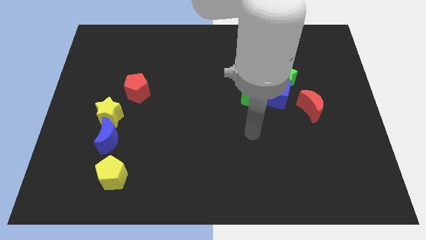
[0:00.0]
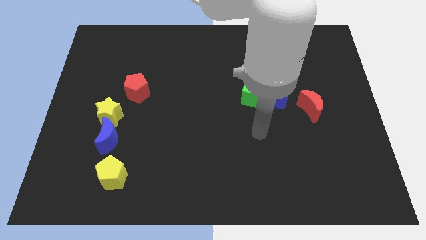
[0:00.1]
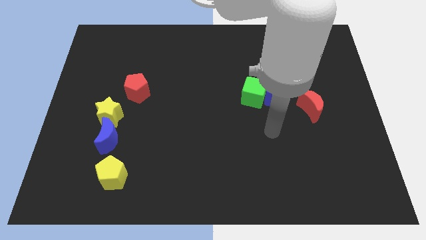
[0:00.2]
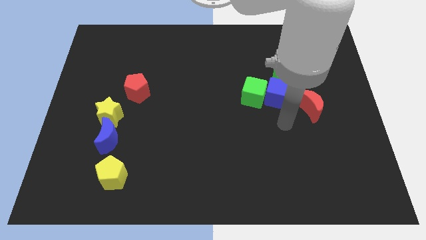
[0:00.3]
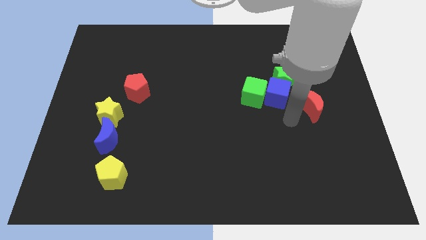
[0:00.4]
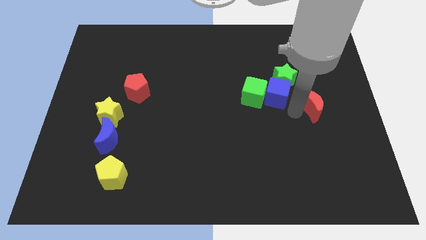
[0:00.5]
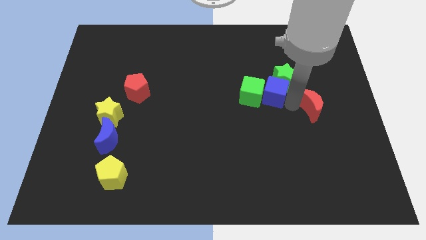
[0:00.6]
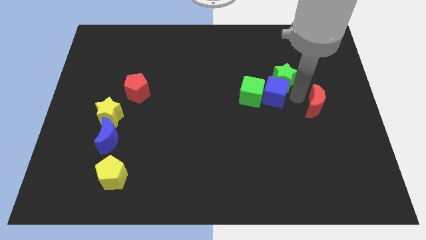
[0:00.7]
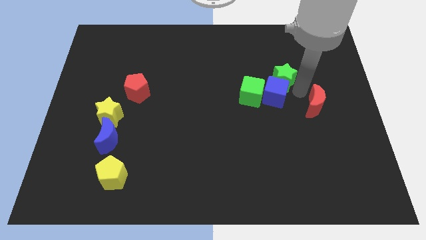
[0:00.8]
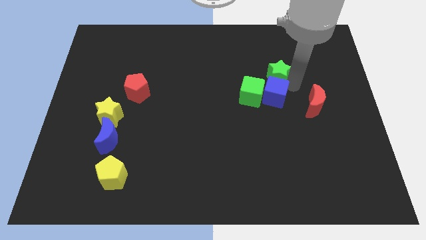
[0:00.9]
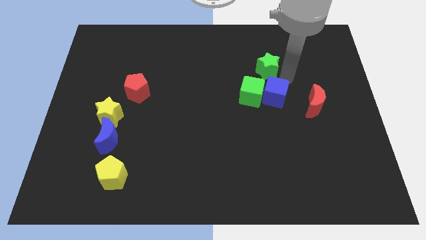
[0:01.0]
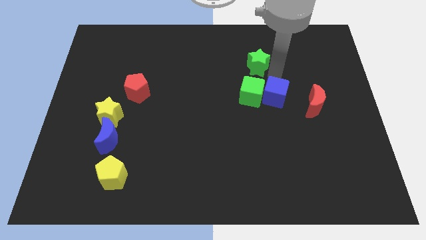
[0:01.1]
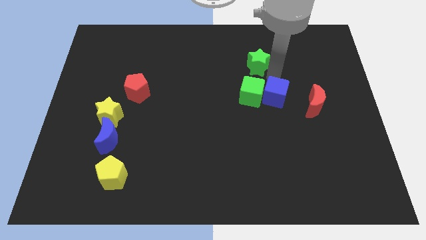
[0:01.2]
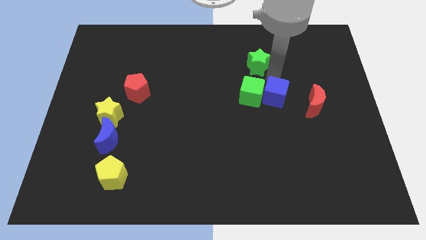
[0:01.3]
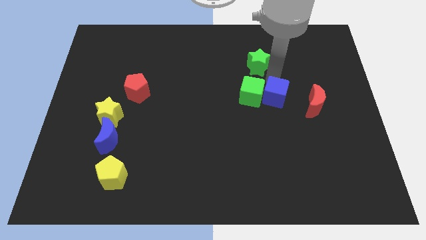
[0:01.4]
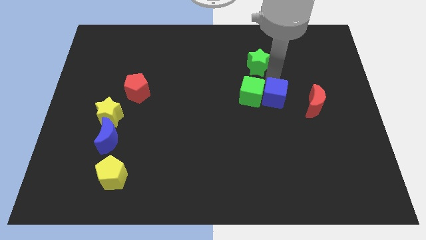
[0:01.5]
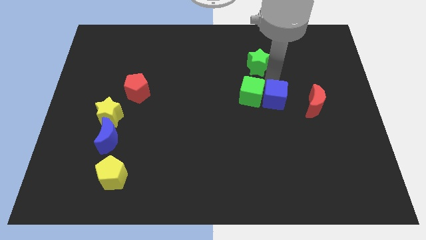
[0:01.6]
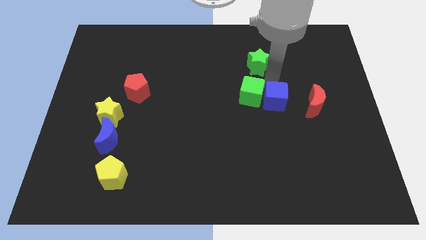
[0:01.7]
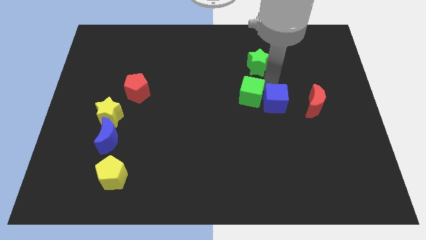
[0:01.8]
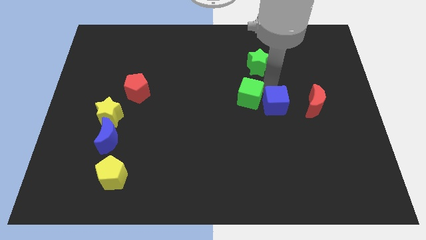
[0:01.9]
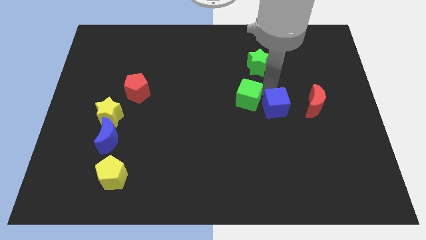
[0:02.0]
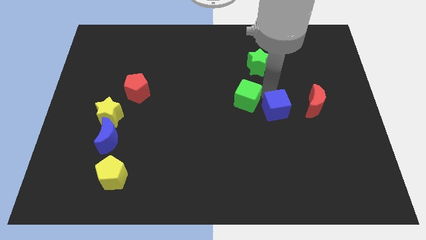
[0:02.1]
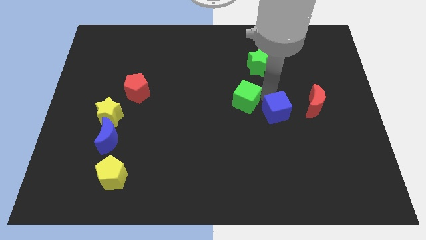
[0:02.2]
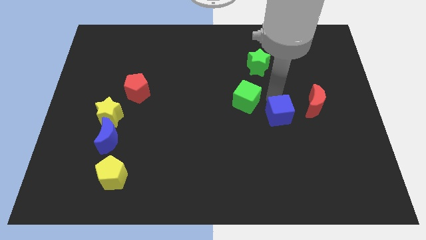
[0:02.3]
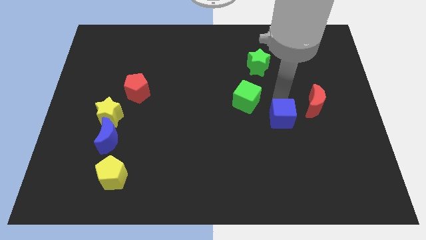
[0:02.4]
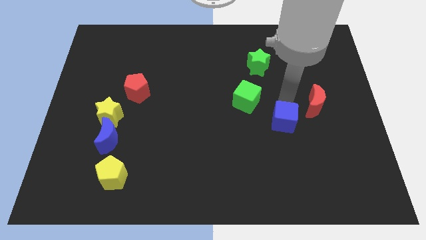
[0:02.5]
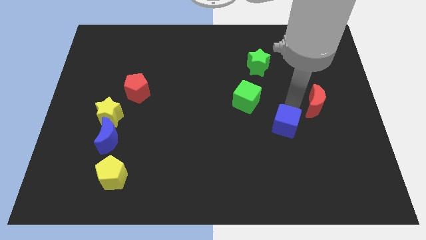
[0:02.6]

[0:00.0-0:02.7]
separate the blue cube from the green star, green cube, and red moon

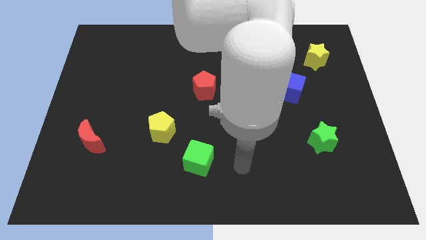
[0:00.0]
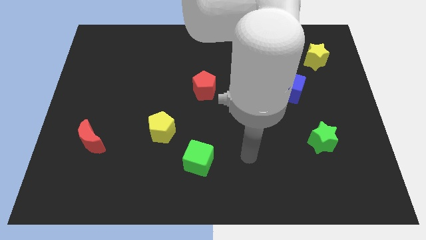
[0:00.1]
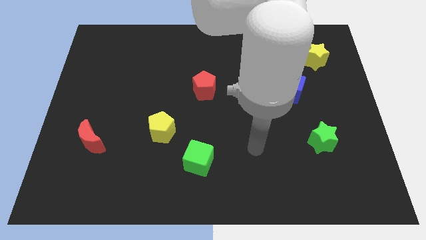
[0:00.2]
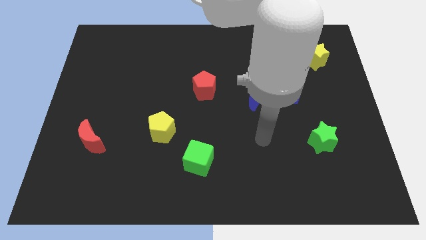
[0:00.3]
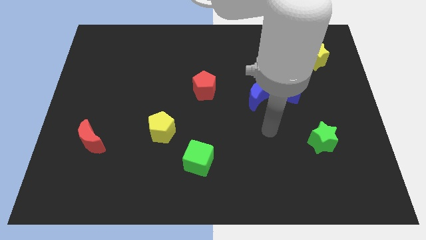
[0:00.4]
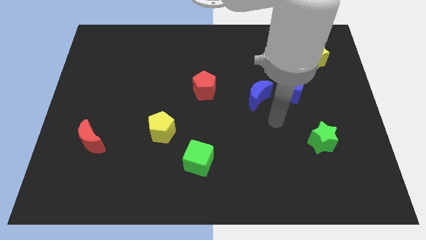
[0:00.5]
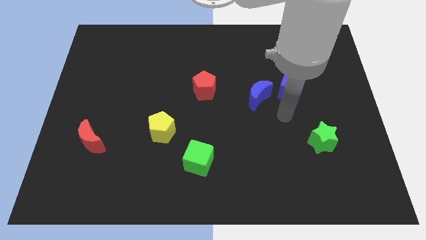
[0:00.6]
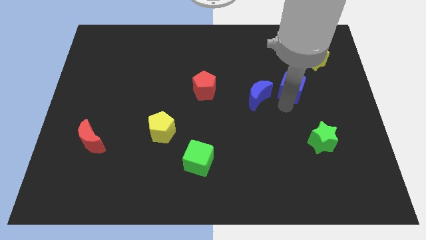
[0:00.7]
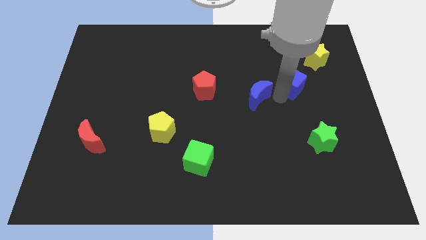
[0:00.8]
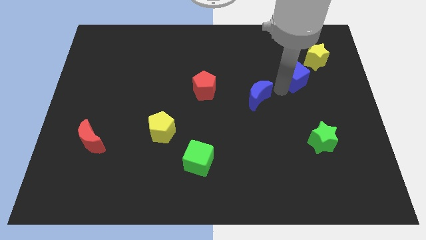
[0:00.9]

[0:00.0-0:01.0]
separate the blue moon from the blue cube

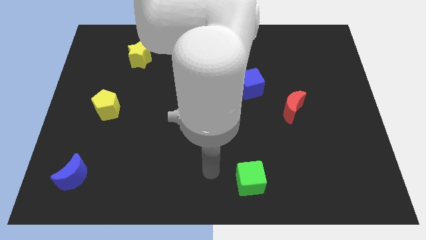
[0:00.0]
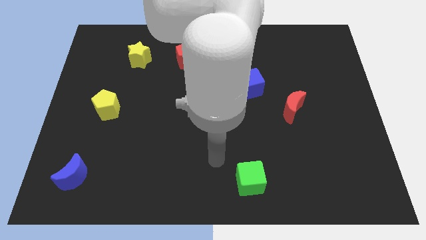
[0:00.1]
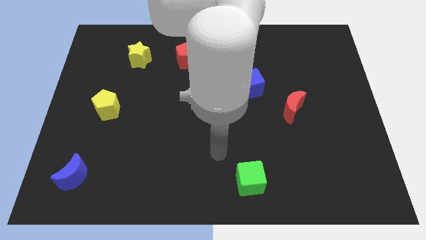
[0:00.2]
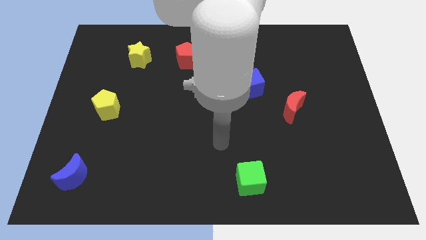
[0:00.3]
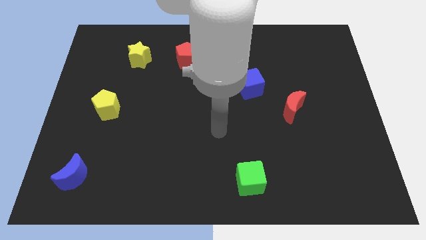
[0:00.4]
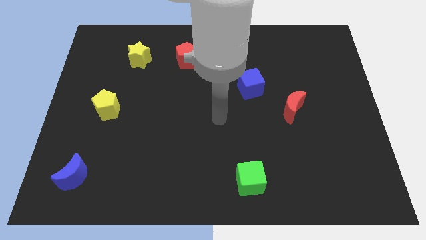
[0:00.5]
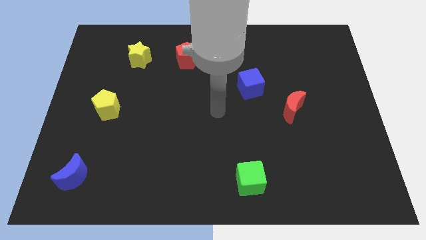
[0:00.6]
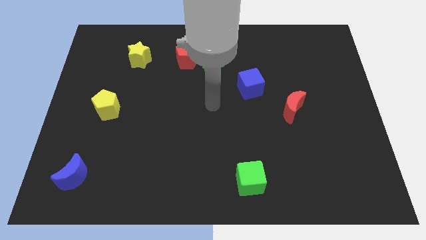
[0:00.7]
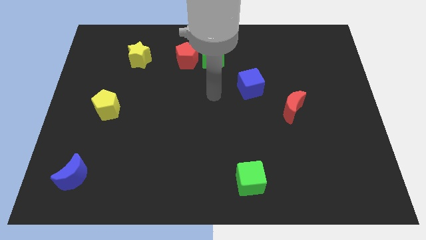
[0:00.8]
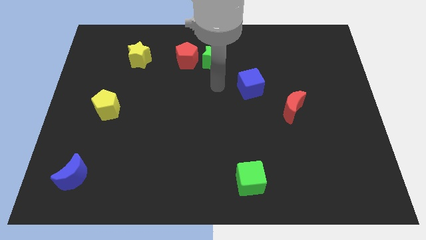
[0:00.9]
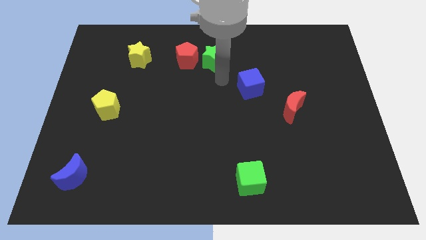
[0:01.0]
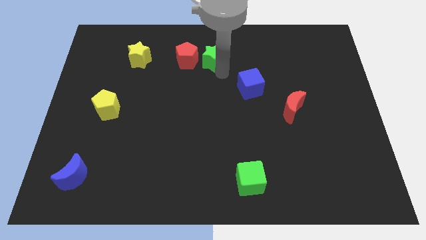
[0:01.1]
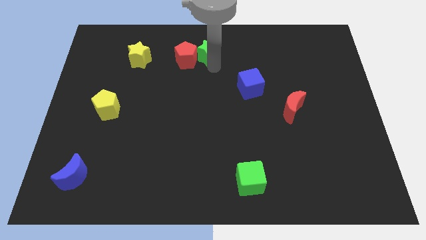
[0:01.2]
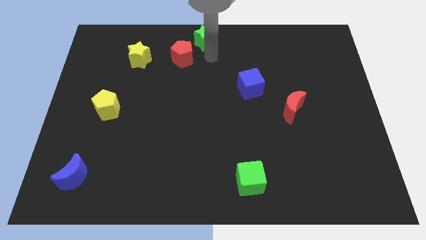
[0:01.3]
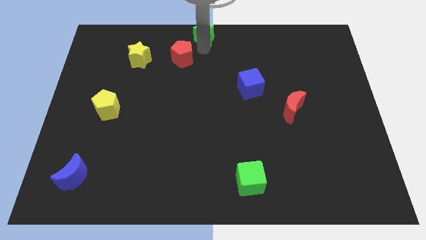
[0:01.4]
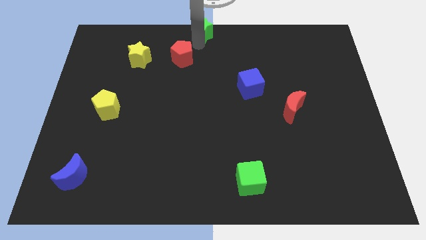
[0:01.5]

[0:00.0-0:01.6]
pull the red pentagon apart from the green star

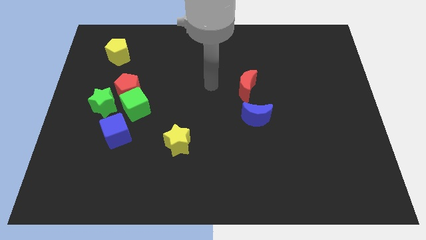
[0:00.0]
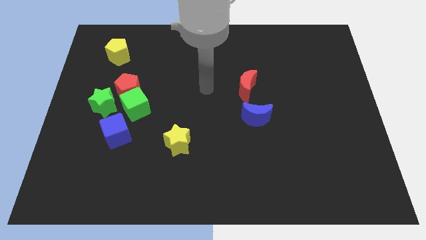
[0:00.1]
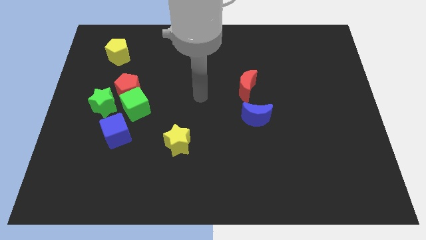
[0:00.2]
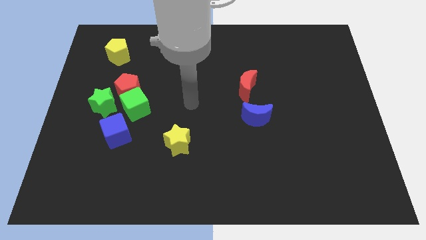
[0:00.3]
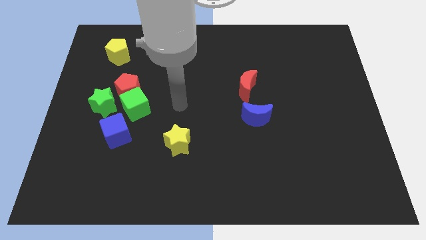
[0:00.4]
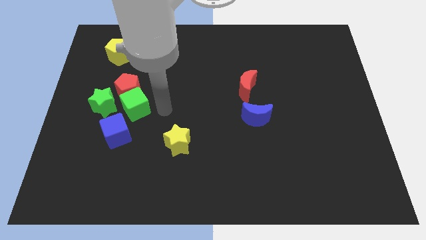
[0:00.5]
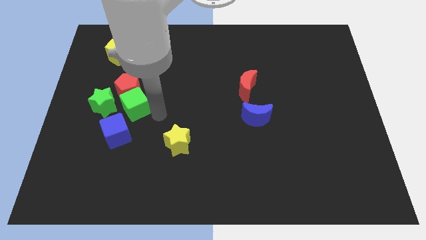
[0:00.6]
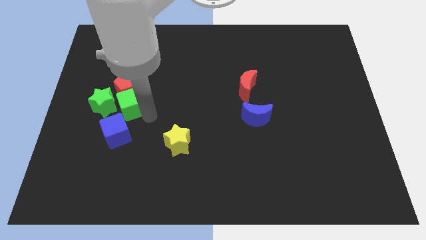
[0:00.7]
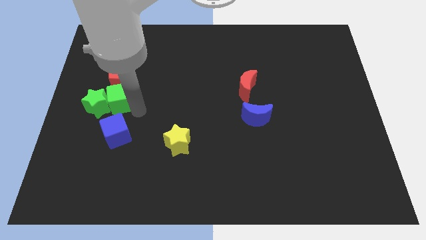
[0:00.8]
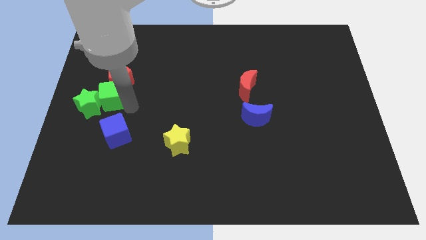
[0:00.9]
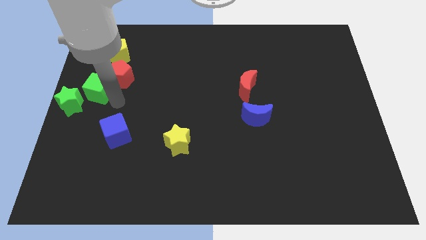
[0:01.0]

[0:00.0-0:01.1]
separate the red pentagon from the green cube and green star

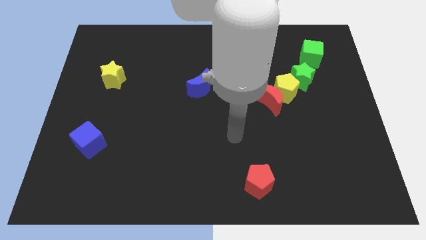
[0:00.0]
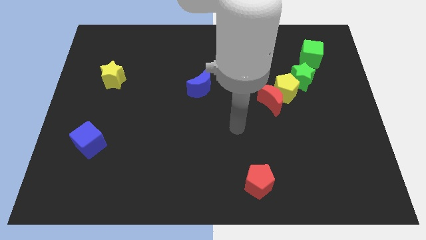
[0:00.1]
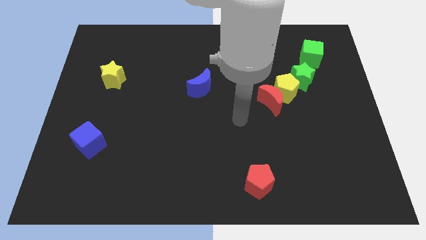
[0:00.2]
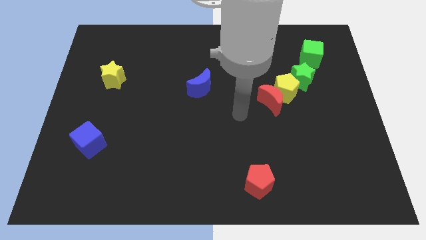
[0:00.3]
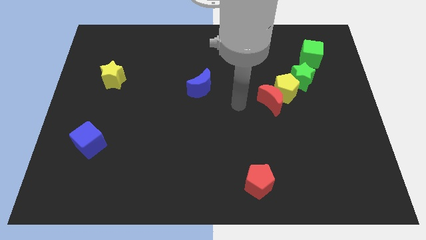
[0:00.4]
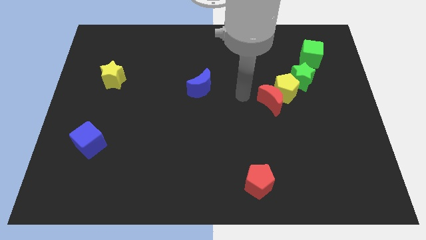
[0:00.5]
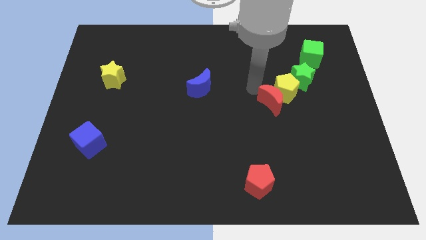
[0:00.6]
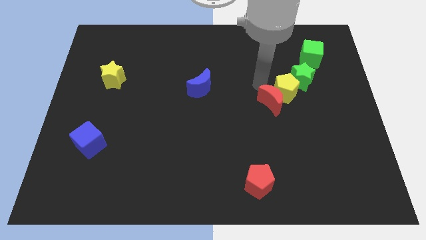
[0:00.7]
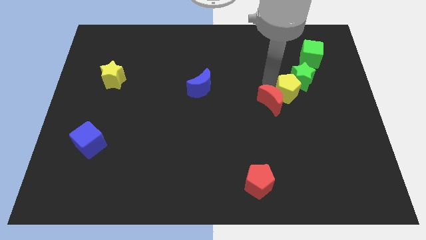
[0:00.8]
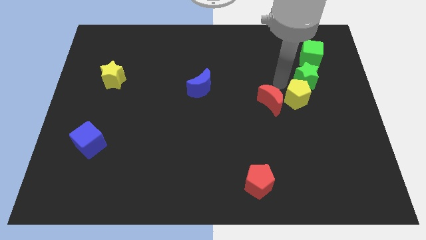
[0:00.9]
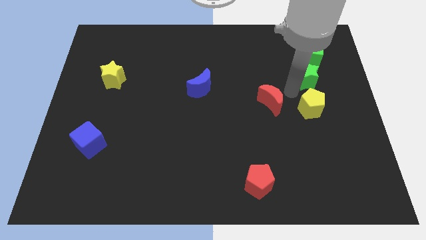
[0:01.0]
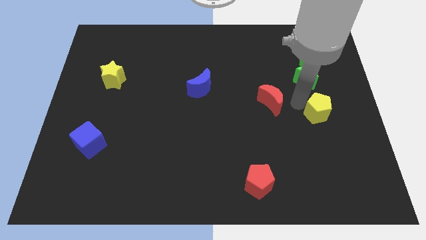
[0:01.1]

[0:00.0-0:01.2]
separate the red moon from the yellow pentagon

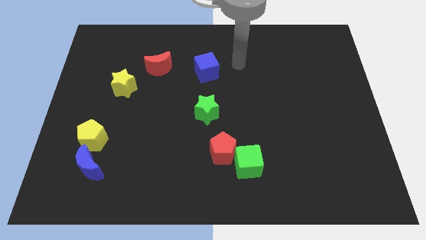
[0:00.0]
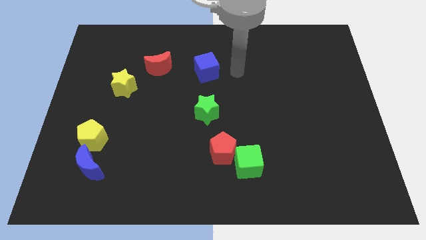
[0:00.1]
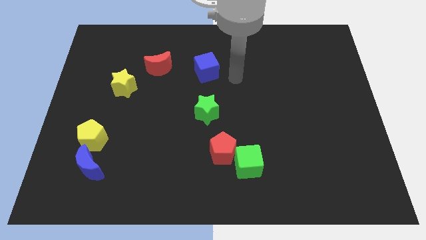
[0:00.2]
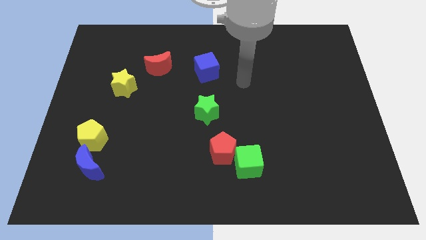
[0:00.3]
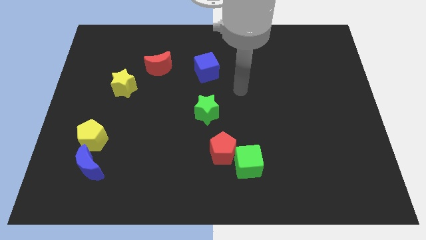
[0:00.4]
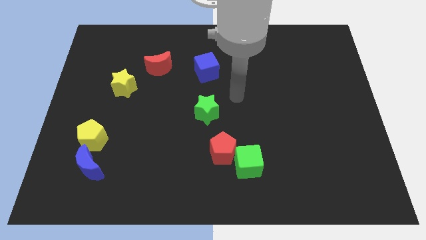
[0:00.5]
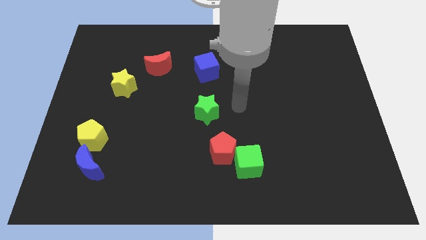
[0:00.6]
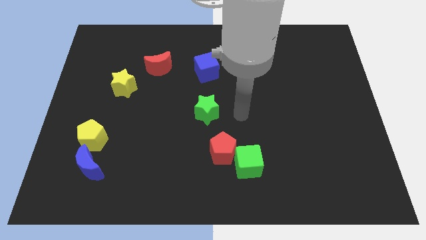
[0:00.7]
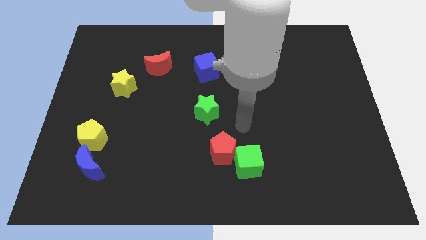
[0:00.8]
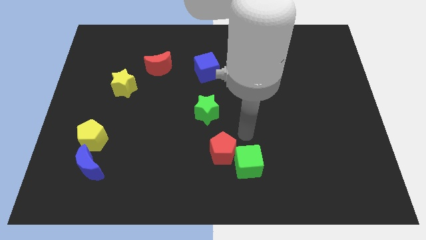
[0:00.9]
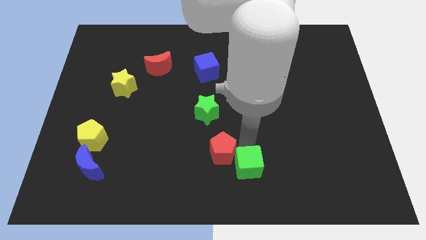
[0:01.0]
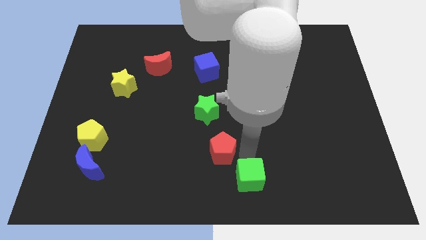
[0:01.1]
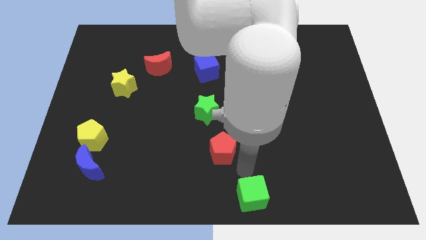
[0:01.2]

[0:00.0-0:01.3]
separate the red pentagon from the green cube

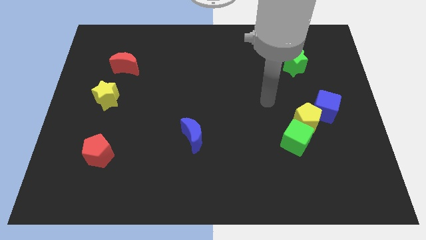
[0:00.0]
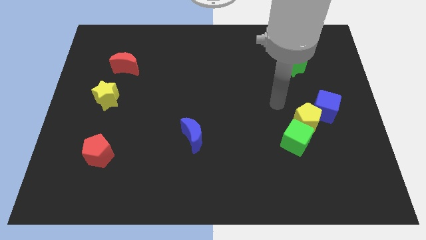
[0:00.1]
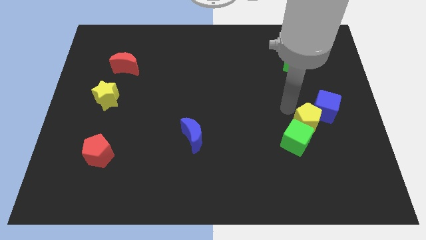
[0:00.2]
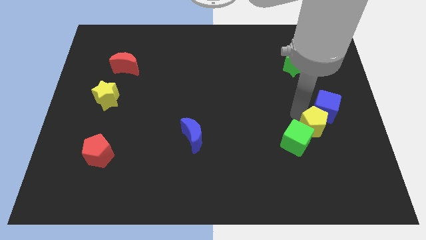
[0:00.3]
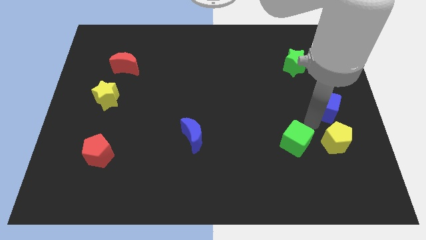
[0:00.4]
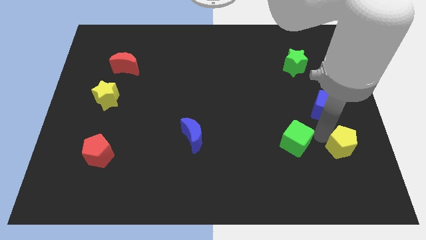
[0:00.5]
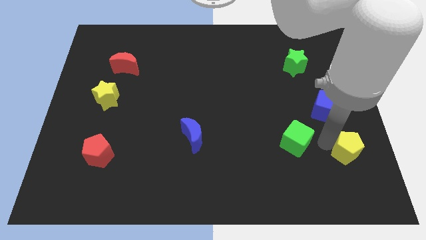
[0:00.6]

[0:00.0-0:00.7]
pull the green cube apart from the yellow pentagon
